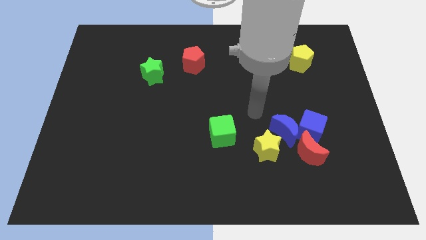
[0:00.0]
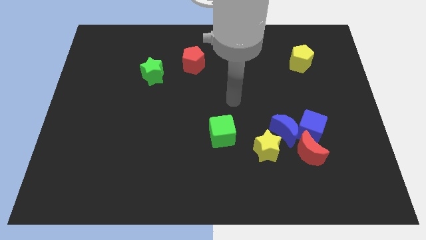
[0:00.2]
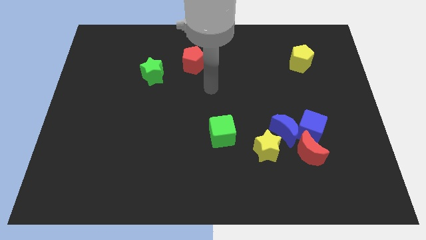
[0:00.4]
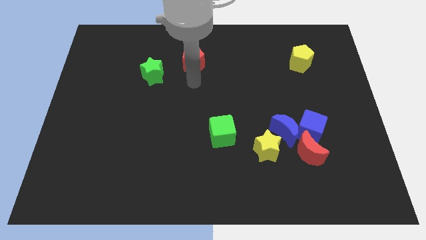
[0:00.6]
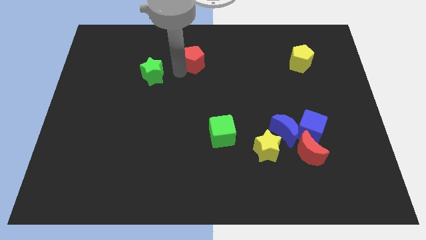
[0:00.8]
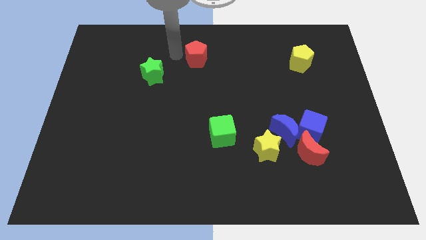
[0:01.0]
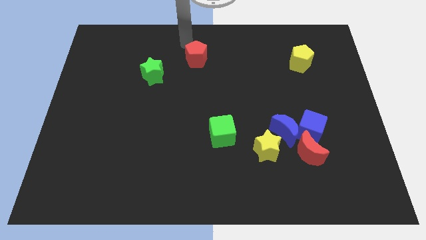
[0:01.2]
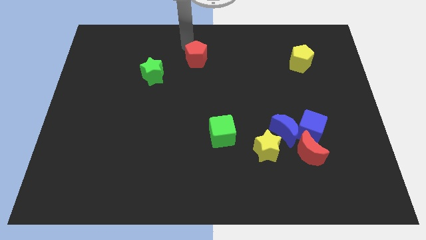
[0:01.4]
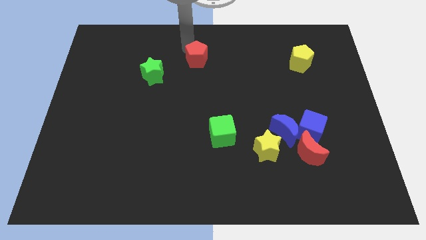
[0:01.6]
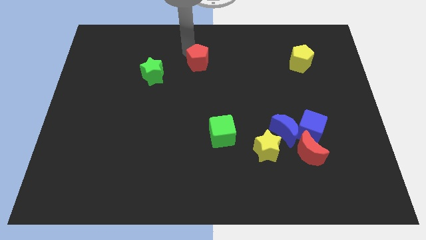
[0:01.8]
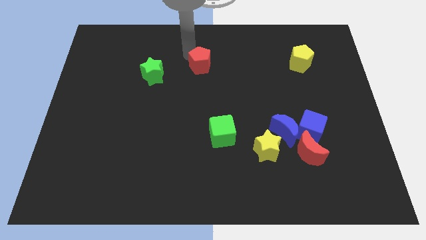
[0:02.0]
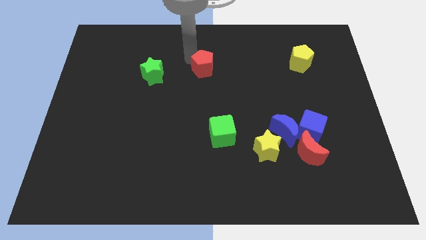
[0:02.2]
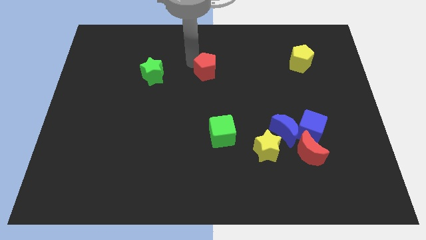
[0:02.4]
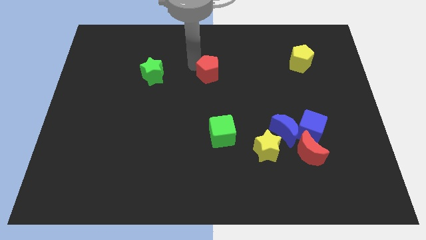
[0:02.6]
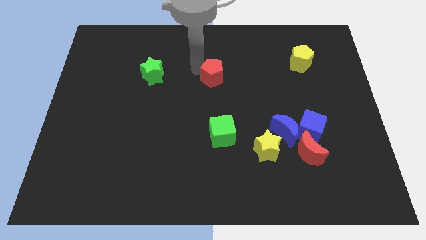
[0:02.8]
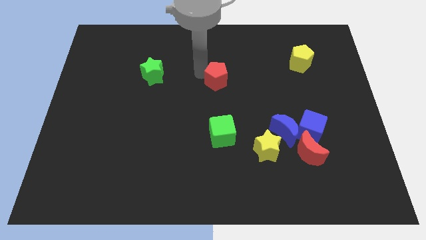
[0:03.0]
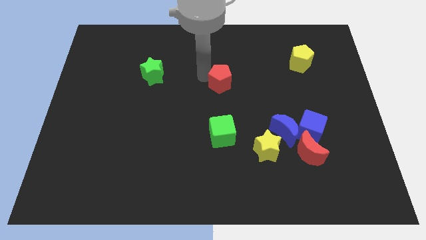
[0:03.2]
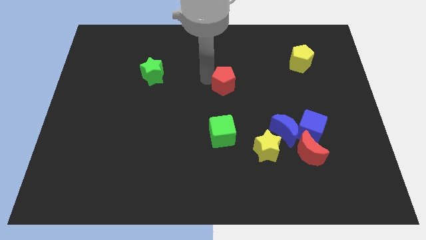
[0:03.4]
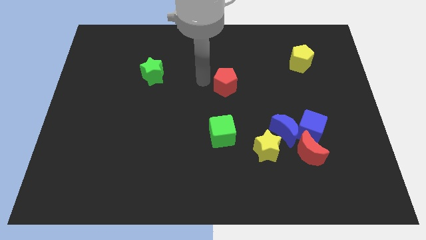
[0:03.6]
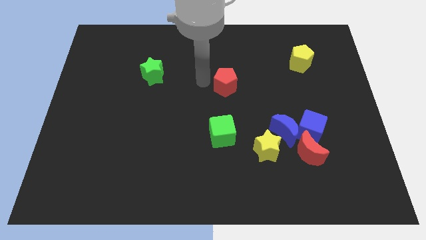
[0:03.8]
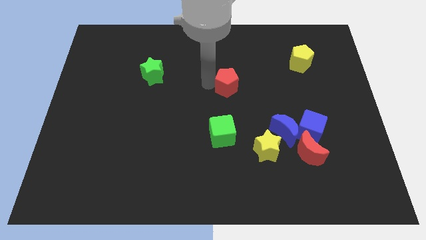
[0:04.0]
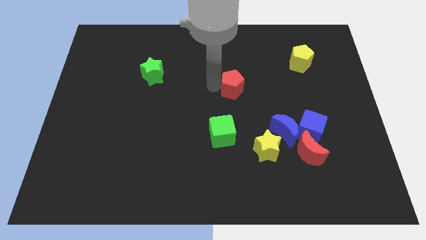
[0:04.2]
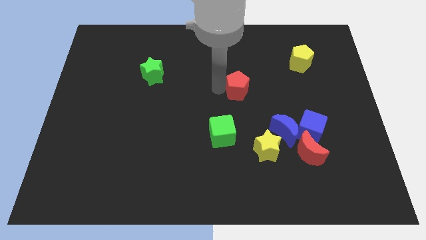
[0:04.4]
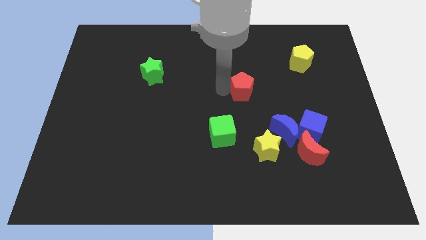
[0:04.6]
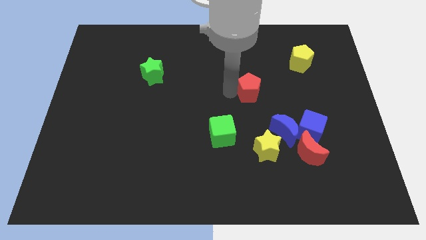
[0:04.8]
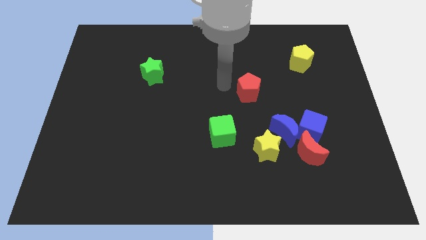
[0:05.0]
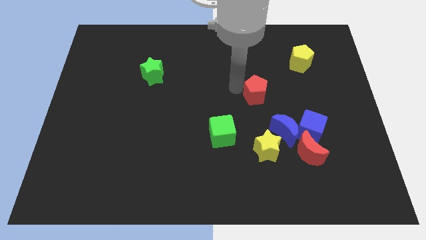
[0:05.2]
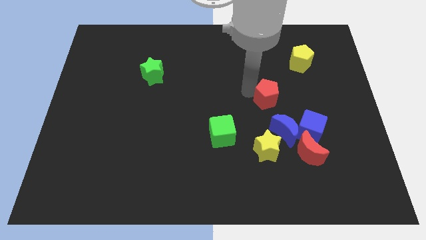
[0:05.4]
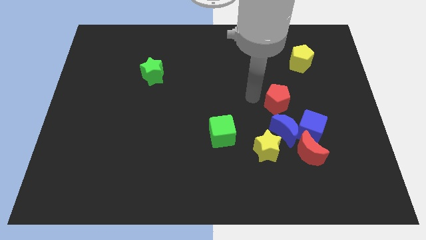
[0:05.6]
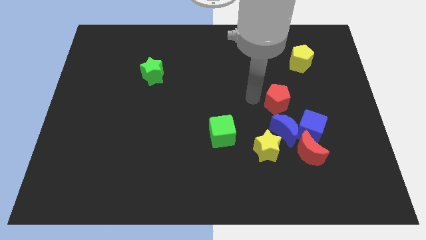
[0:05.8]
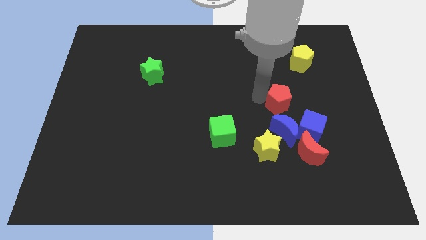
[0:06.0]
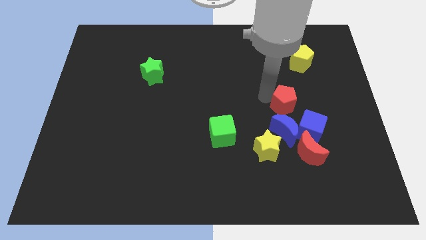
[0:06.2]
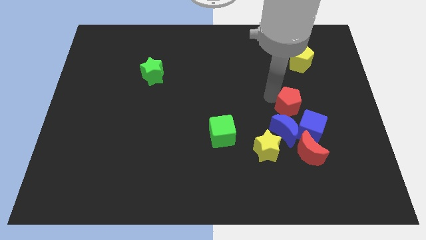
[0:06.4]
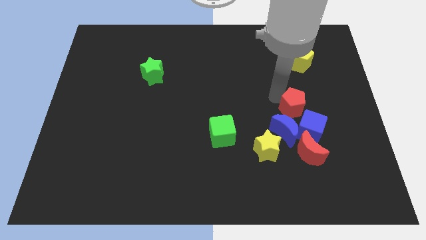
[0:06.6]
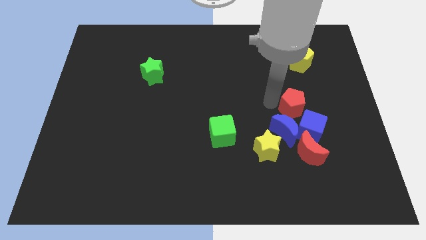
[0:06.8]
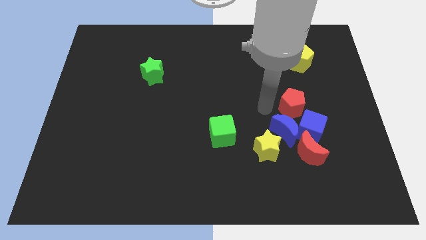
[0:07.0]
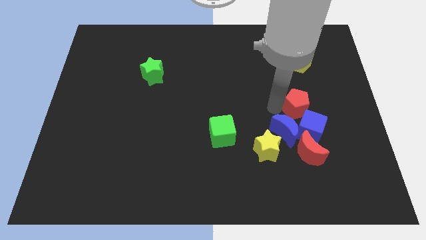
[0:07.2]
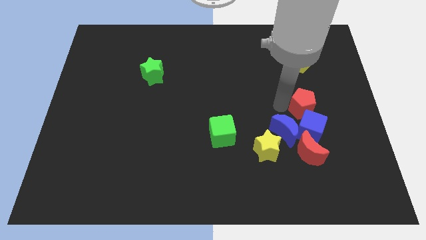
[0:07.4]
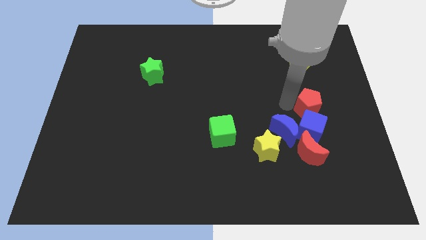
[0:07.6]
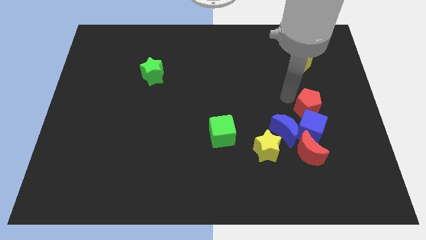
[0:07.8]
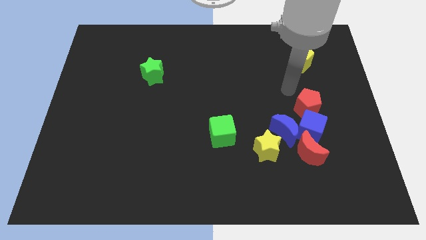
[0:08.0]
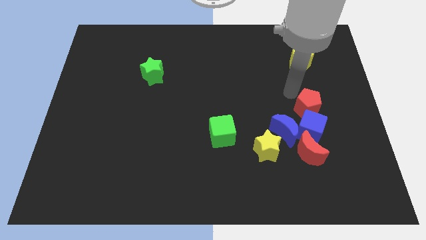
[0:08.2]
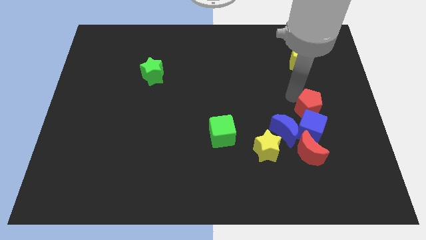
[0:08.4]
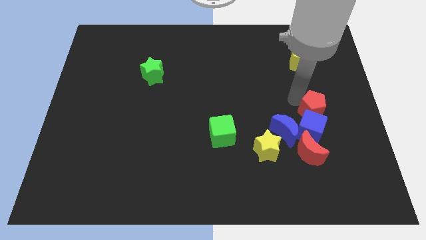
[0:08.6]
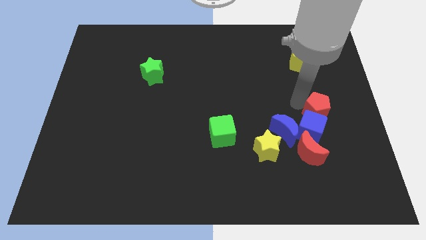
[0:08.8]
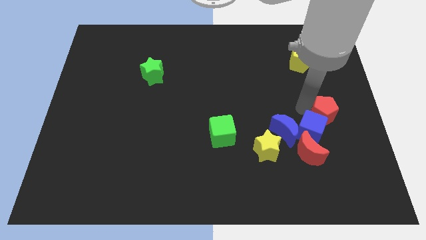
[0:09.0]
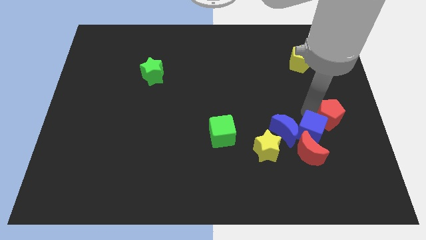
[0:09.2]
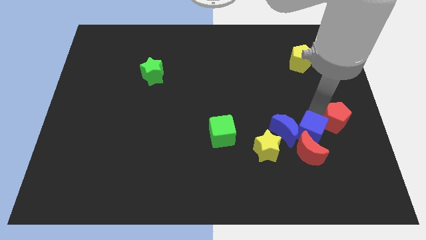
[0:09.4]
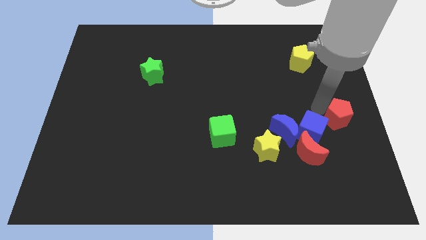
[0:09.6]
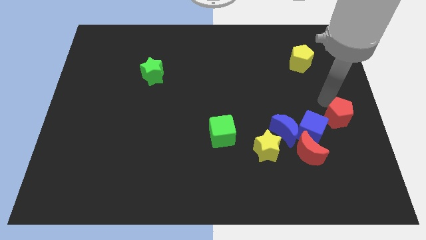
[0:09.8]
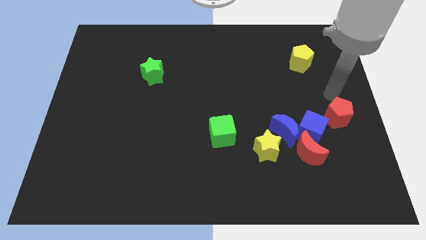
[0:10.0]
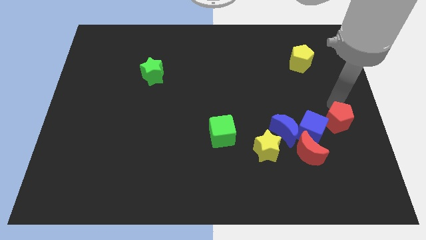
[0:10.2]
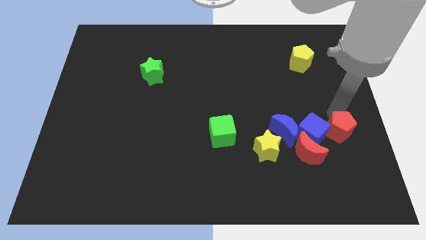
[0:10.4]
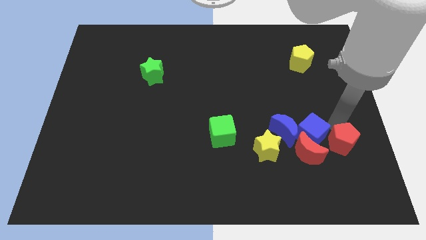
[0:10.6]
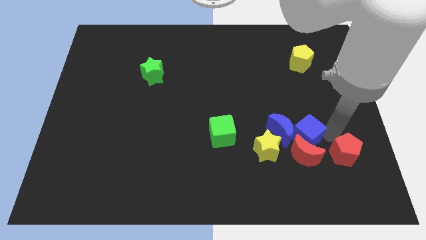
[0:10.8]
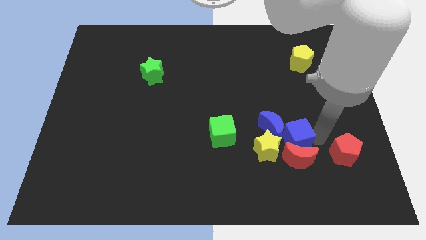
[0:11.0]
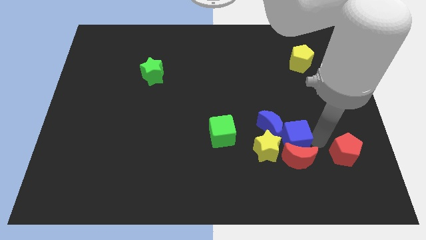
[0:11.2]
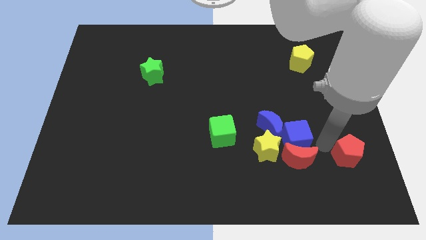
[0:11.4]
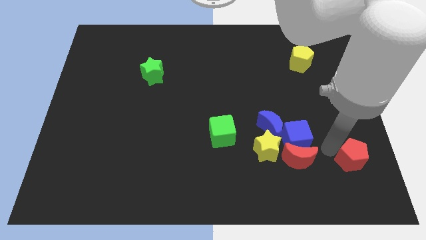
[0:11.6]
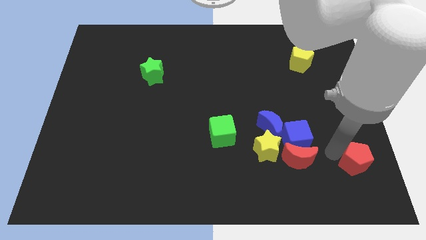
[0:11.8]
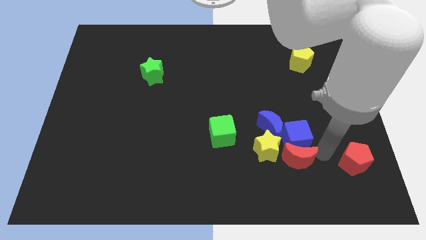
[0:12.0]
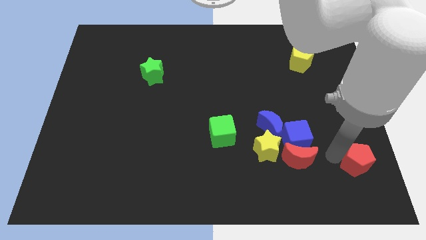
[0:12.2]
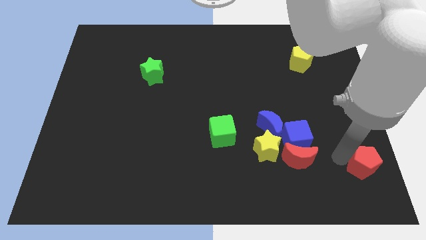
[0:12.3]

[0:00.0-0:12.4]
slide the red pentagon to the bottom right corner

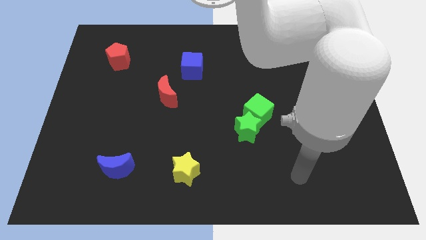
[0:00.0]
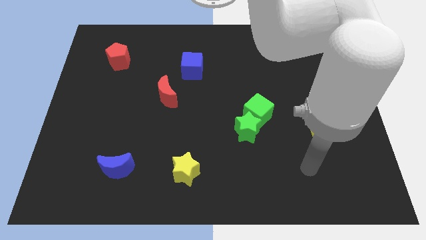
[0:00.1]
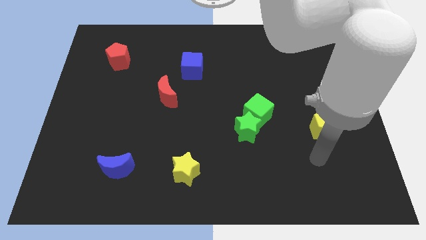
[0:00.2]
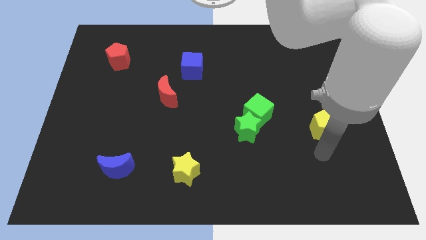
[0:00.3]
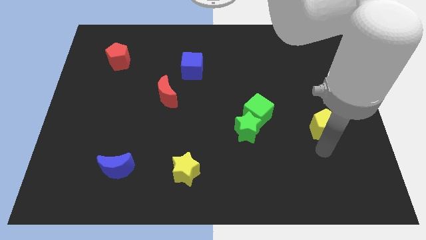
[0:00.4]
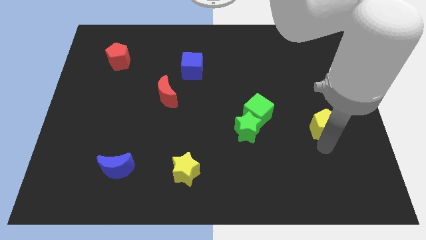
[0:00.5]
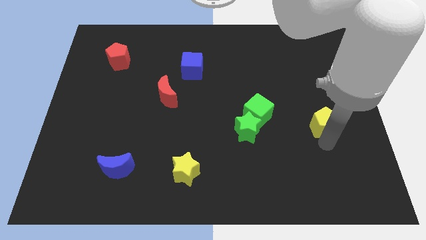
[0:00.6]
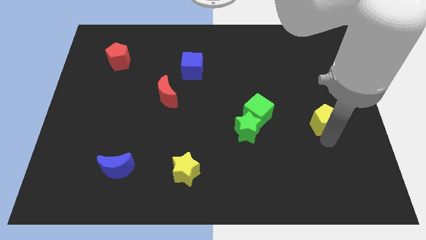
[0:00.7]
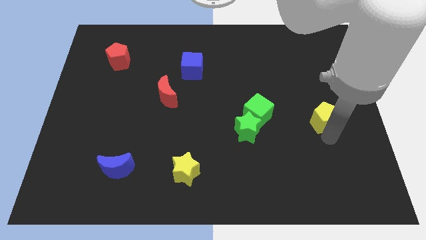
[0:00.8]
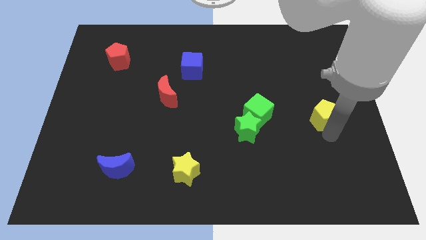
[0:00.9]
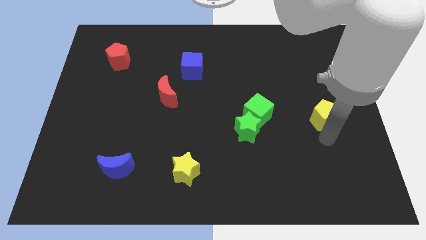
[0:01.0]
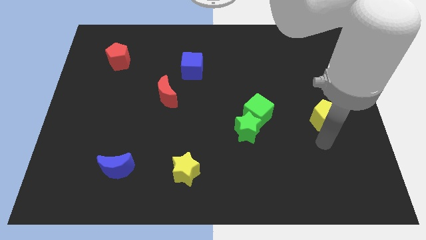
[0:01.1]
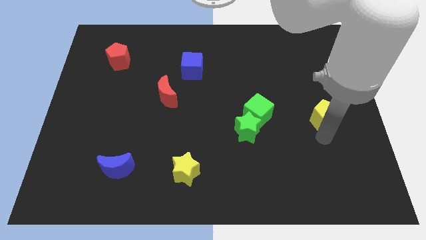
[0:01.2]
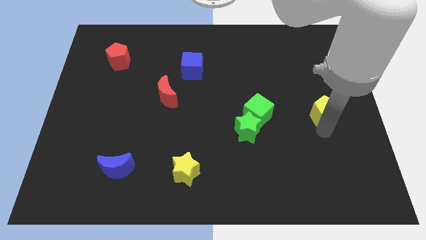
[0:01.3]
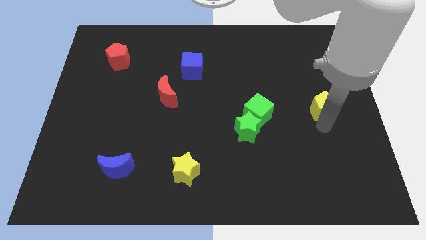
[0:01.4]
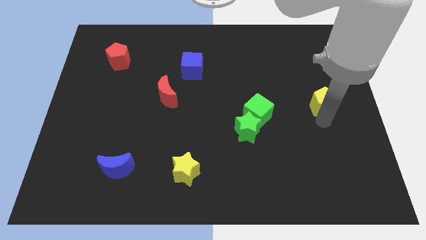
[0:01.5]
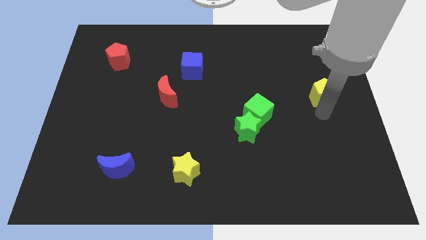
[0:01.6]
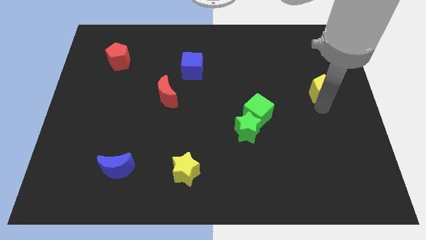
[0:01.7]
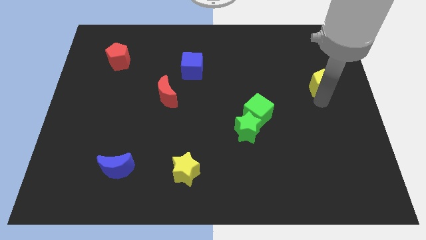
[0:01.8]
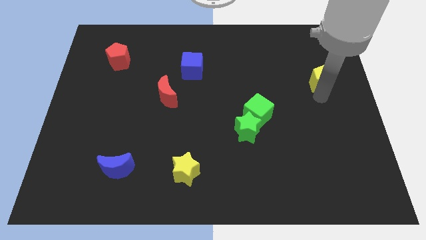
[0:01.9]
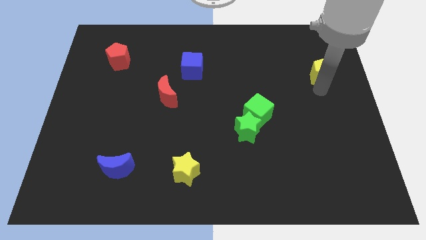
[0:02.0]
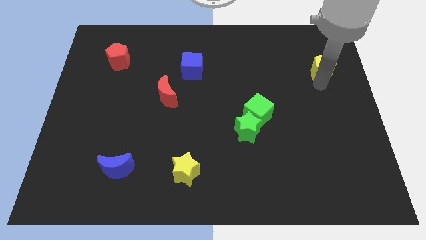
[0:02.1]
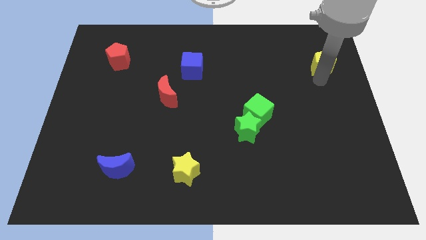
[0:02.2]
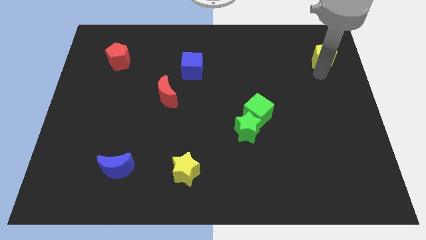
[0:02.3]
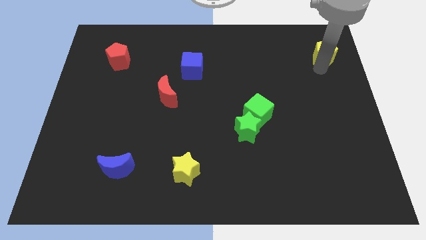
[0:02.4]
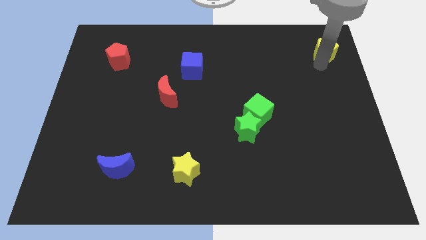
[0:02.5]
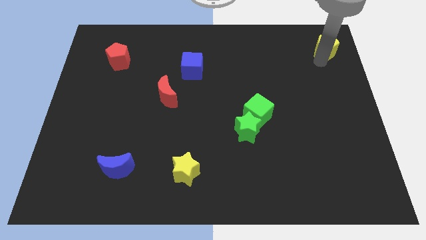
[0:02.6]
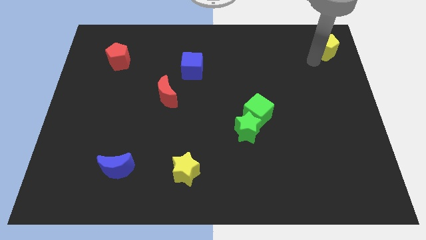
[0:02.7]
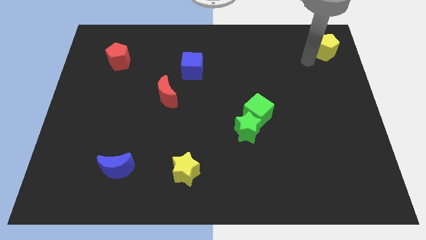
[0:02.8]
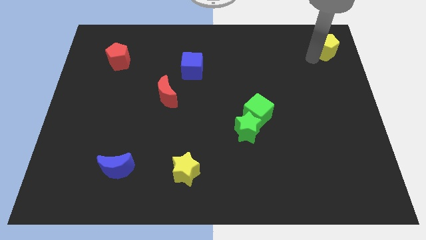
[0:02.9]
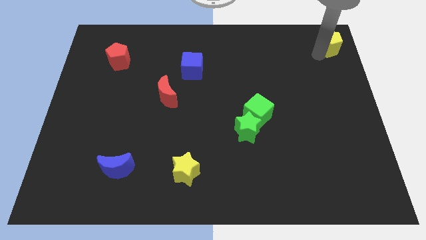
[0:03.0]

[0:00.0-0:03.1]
move the yellow pentagon to the top right corner
